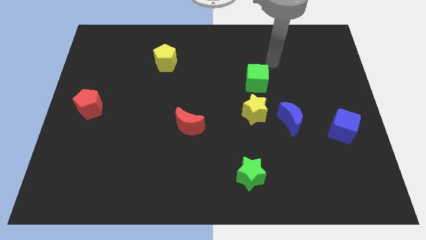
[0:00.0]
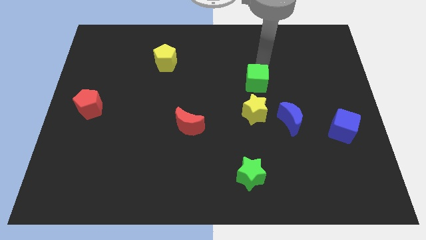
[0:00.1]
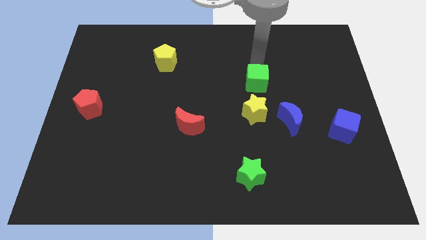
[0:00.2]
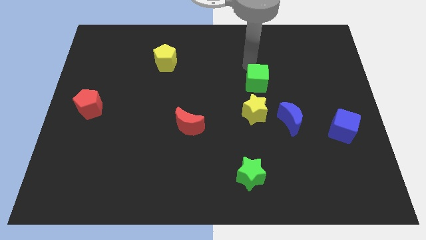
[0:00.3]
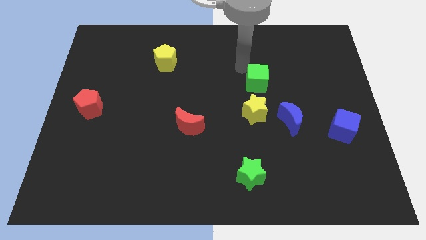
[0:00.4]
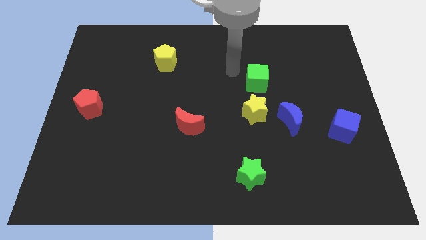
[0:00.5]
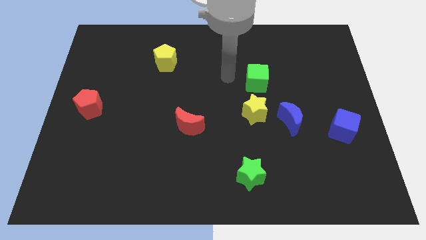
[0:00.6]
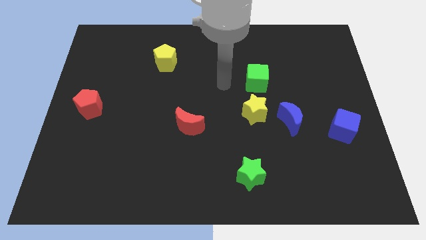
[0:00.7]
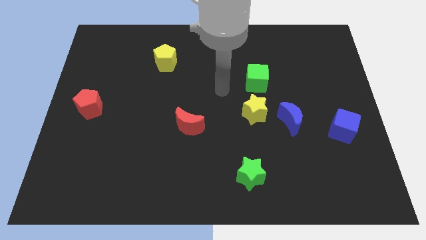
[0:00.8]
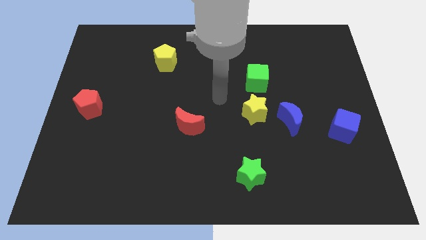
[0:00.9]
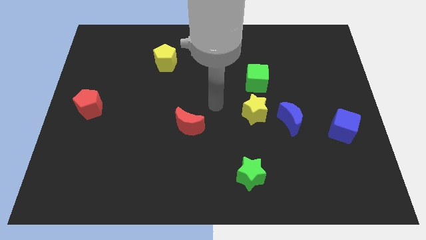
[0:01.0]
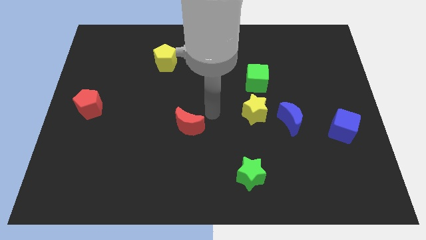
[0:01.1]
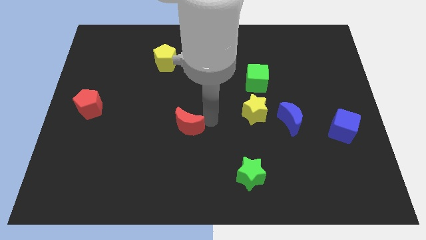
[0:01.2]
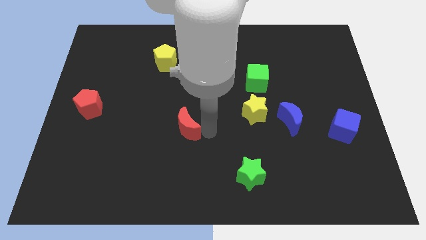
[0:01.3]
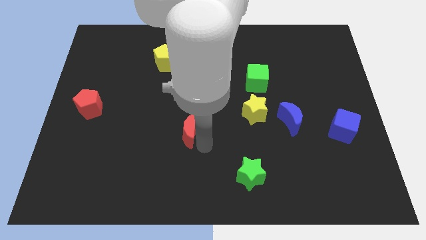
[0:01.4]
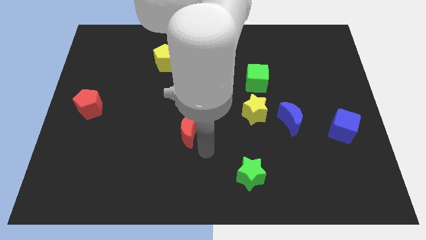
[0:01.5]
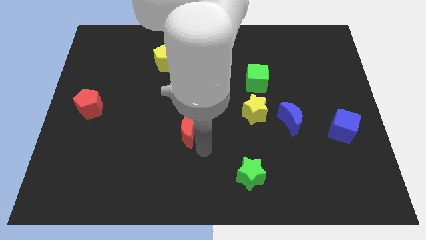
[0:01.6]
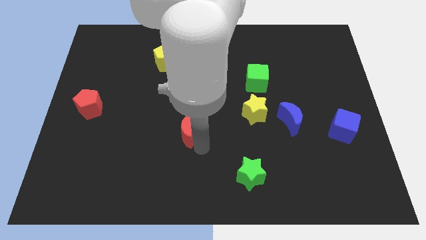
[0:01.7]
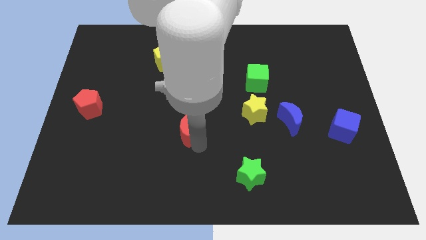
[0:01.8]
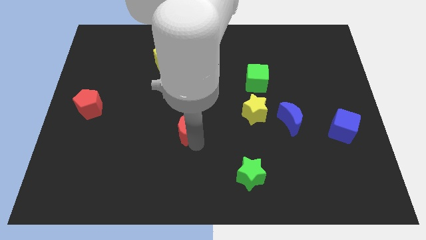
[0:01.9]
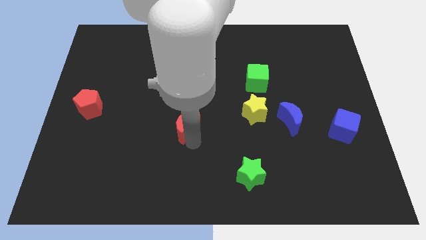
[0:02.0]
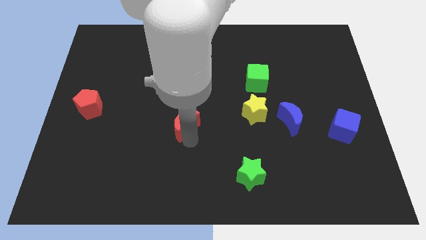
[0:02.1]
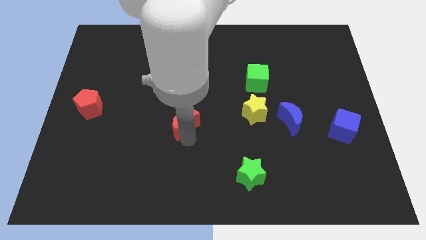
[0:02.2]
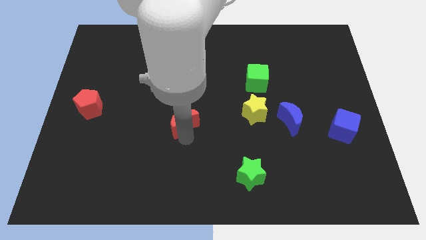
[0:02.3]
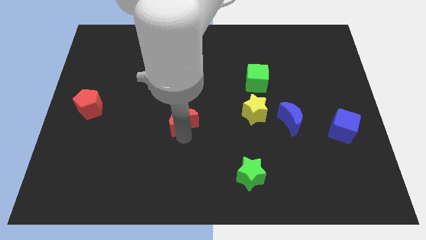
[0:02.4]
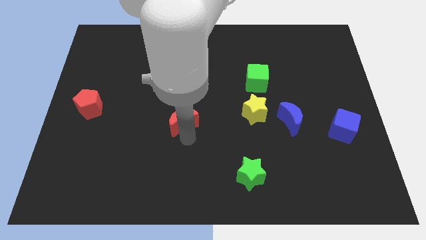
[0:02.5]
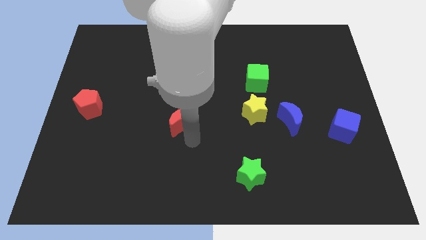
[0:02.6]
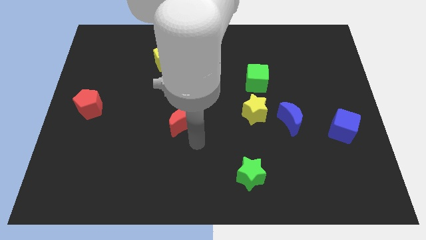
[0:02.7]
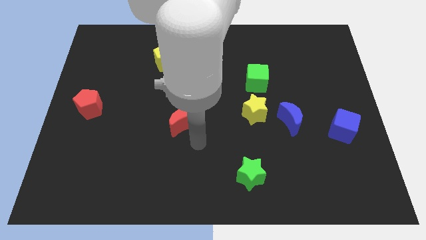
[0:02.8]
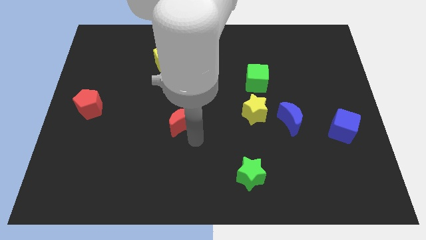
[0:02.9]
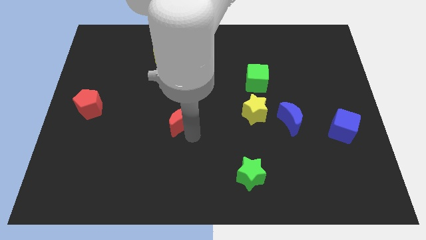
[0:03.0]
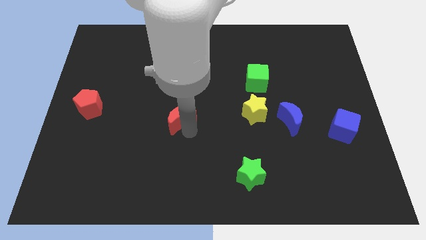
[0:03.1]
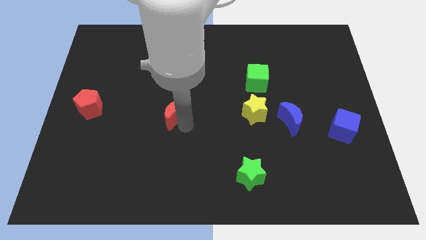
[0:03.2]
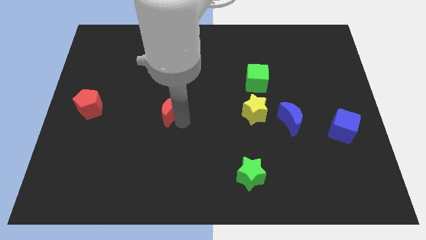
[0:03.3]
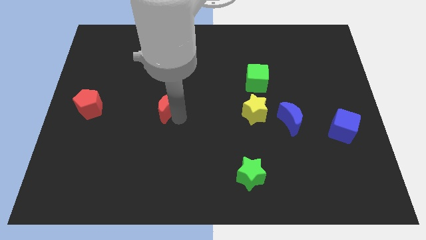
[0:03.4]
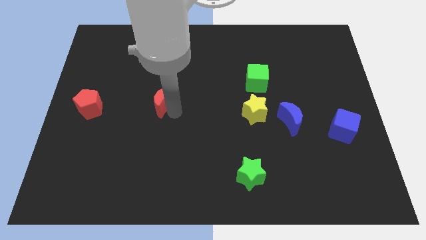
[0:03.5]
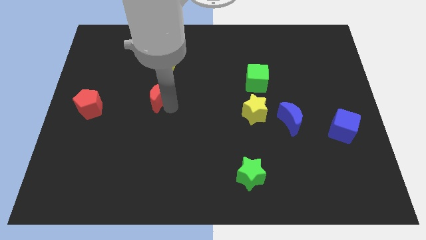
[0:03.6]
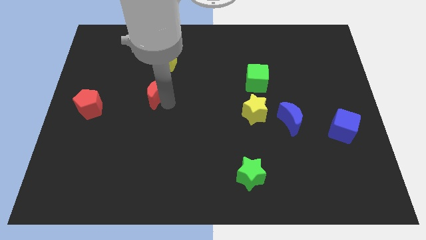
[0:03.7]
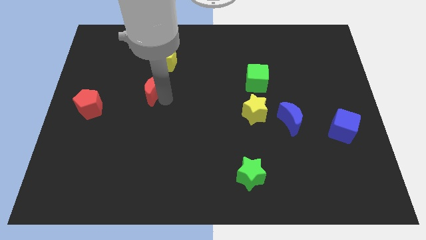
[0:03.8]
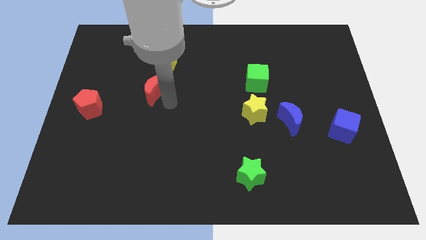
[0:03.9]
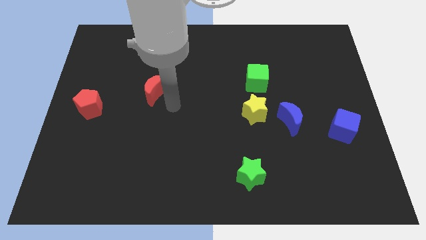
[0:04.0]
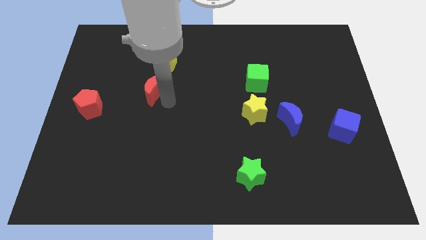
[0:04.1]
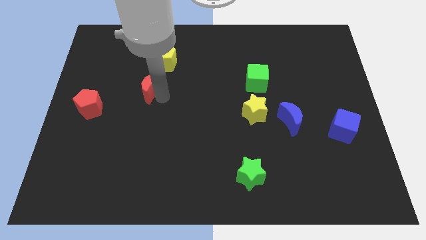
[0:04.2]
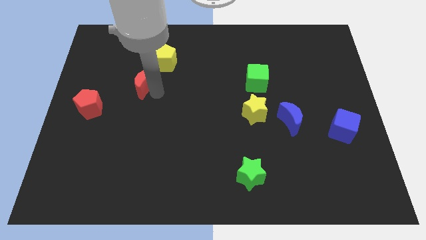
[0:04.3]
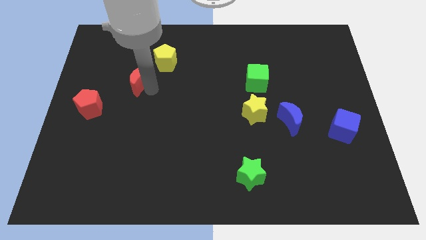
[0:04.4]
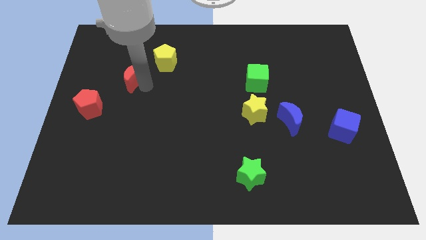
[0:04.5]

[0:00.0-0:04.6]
move the red moon upwards and then left

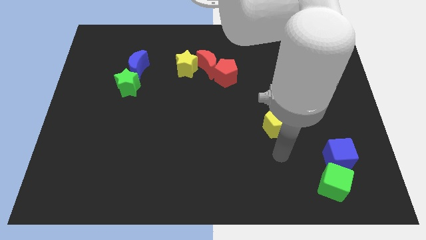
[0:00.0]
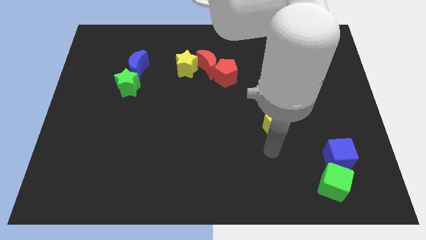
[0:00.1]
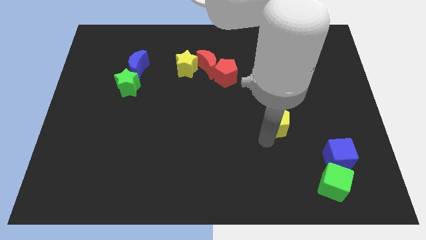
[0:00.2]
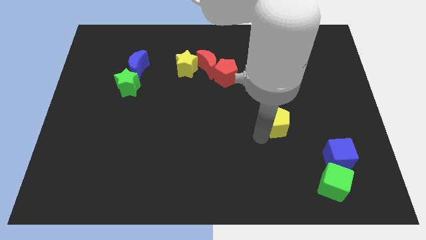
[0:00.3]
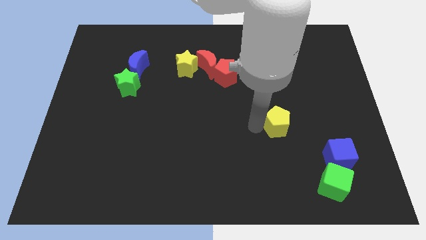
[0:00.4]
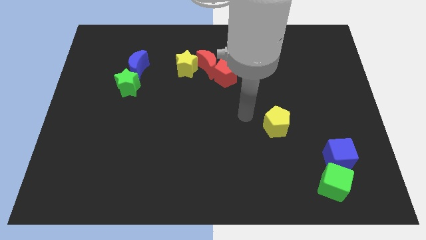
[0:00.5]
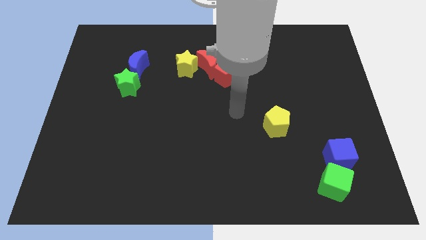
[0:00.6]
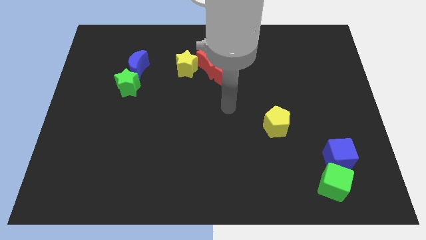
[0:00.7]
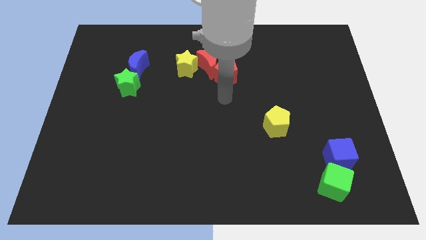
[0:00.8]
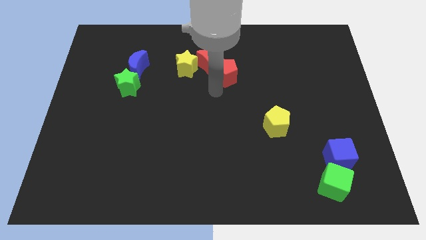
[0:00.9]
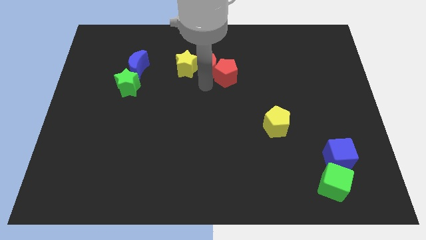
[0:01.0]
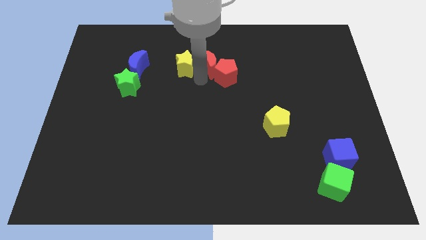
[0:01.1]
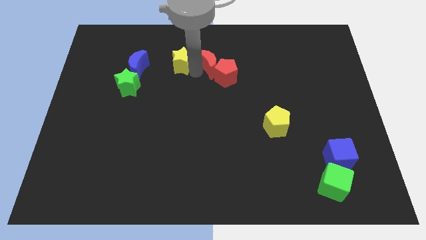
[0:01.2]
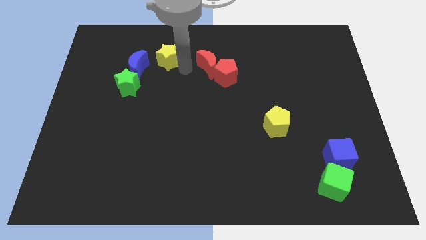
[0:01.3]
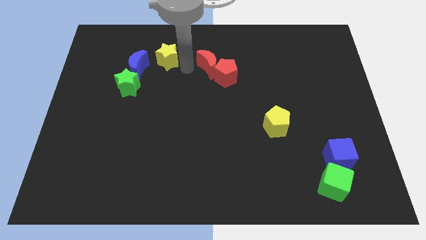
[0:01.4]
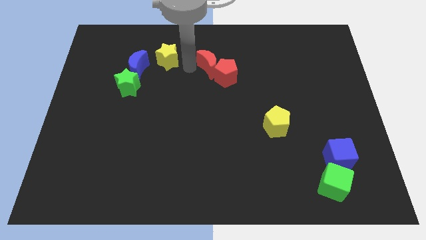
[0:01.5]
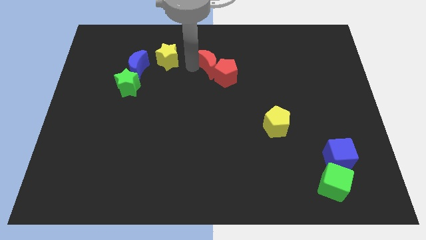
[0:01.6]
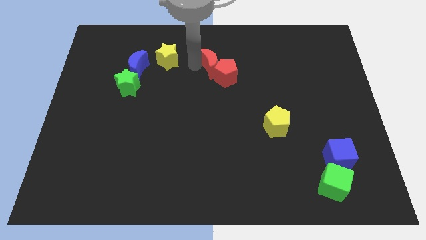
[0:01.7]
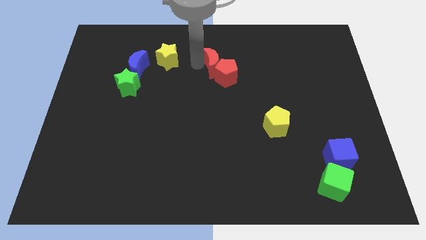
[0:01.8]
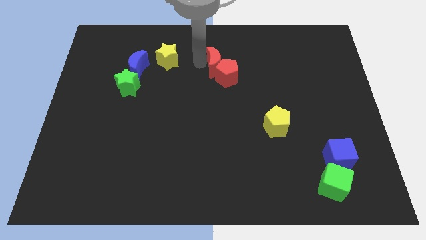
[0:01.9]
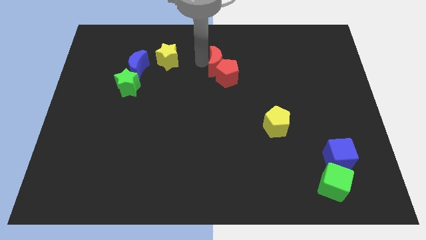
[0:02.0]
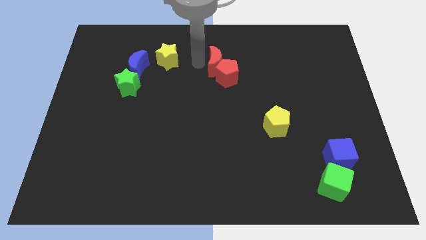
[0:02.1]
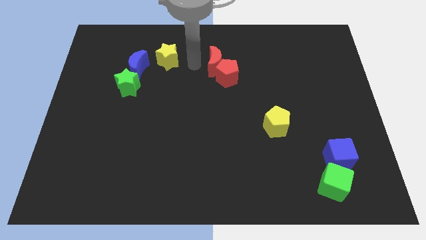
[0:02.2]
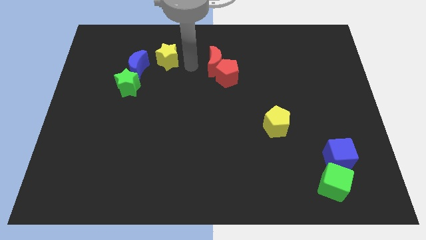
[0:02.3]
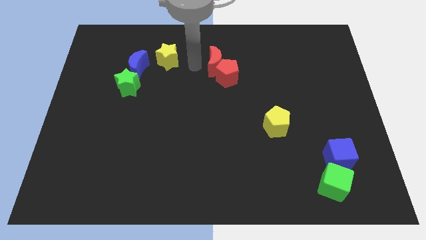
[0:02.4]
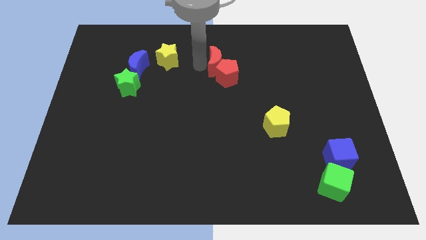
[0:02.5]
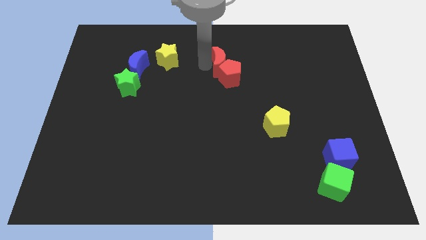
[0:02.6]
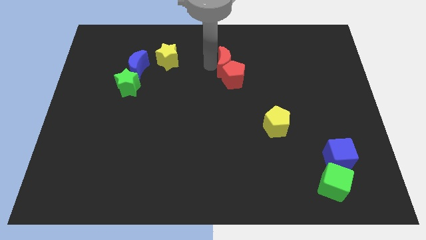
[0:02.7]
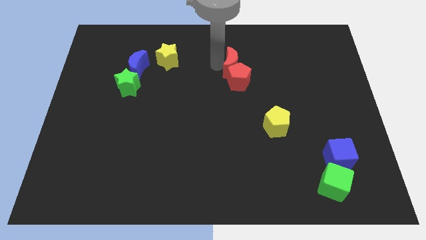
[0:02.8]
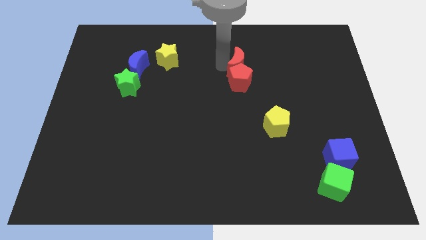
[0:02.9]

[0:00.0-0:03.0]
push the red moon right slightly

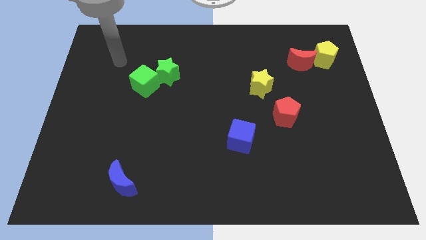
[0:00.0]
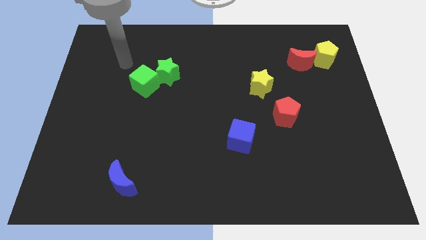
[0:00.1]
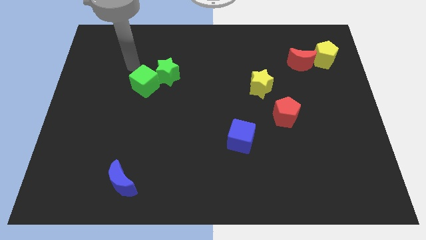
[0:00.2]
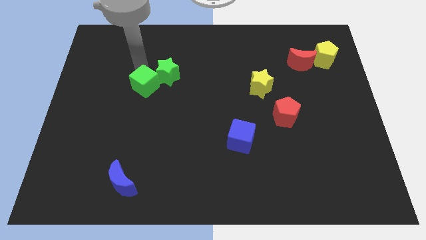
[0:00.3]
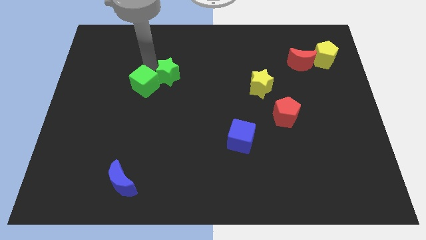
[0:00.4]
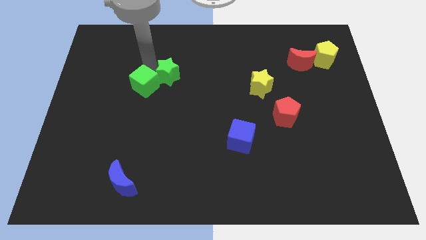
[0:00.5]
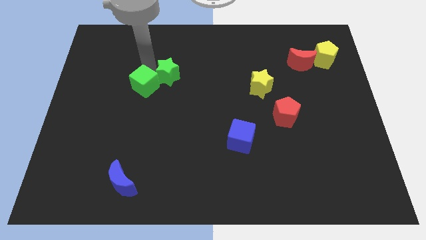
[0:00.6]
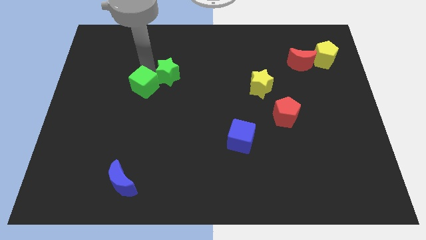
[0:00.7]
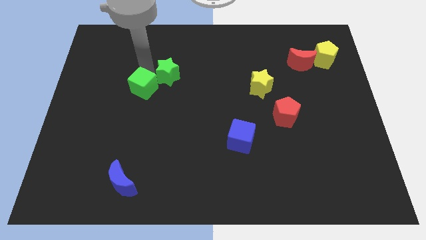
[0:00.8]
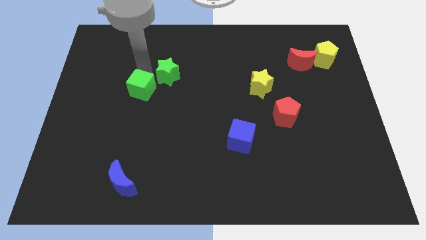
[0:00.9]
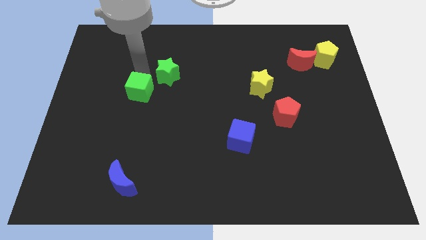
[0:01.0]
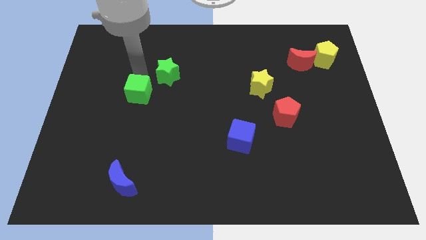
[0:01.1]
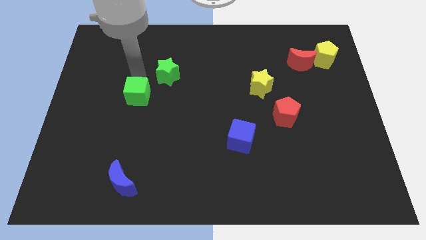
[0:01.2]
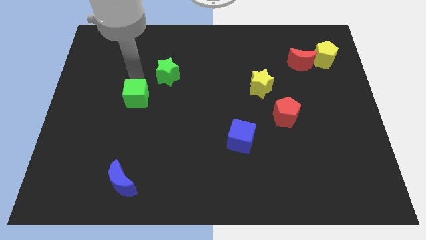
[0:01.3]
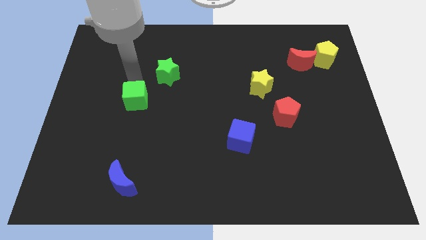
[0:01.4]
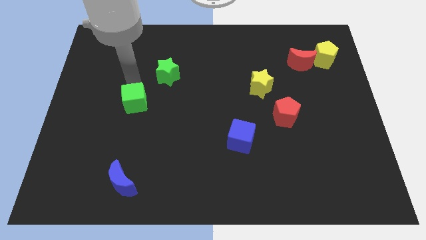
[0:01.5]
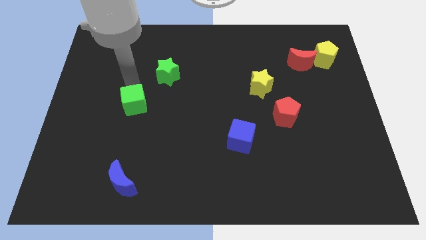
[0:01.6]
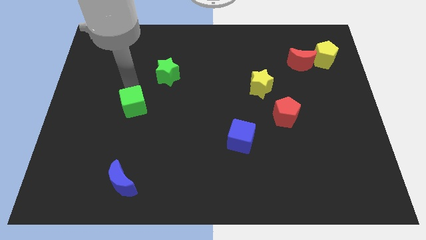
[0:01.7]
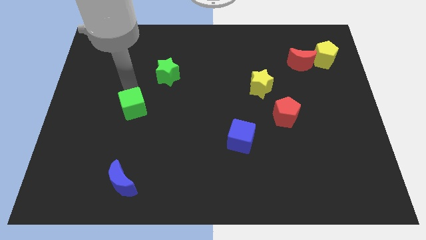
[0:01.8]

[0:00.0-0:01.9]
push the green cube downwards a bit
